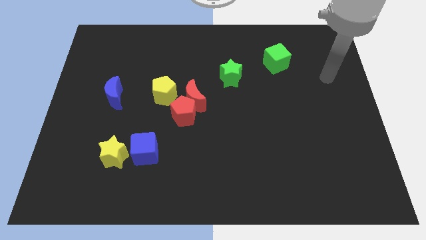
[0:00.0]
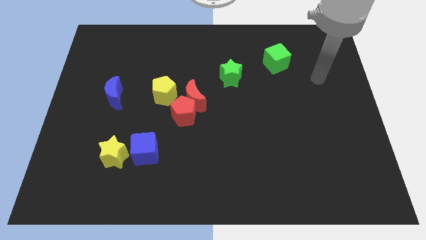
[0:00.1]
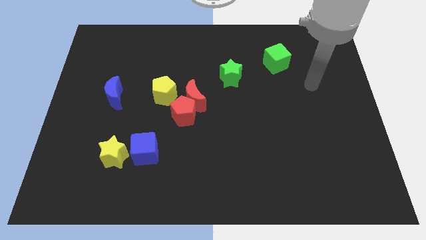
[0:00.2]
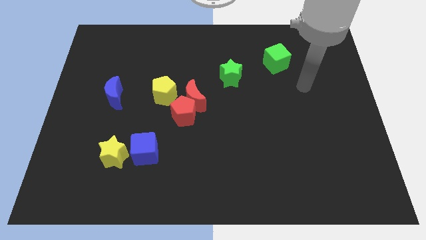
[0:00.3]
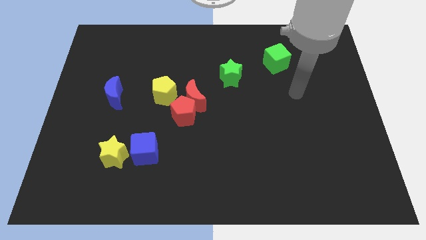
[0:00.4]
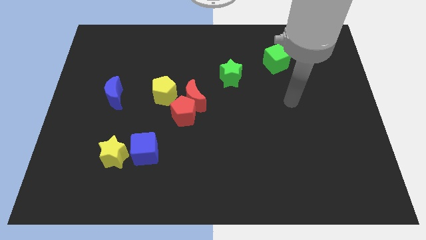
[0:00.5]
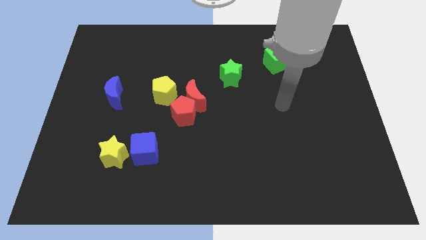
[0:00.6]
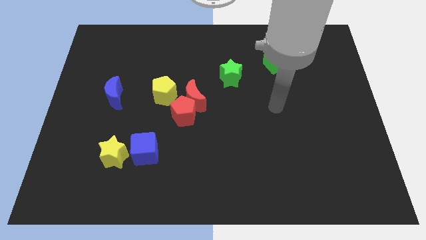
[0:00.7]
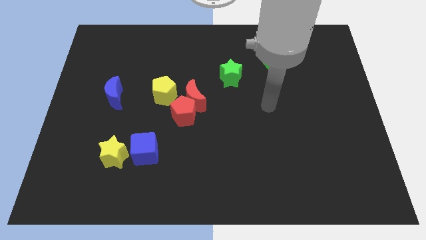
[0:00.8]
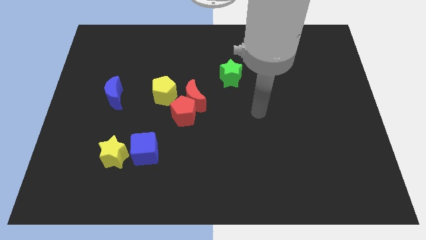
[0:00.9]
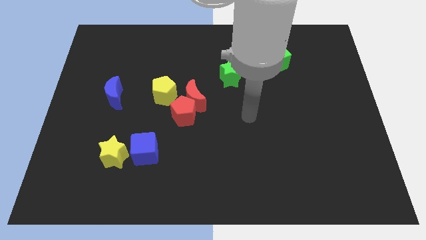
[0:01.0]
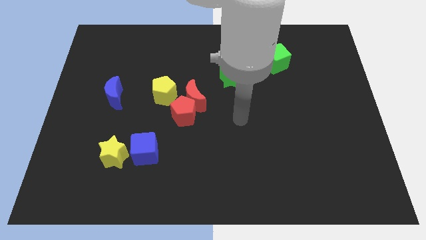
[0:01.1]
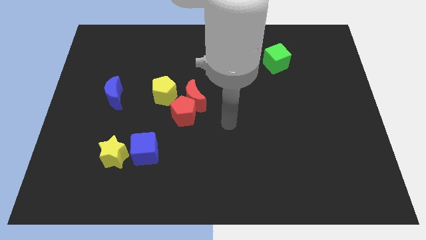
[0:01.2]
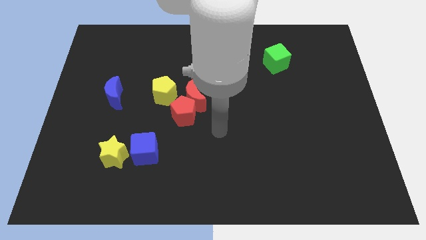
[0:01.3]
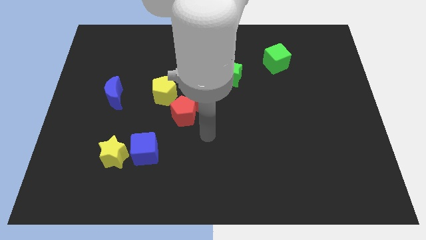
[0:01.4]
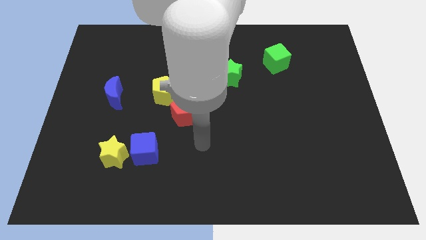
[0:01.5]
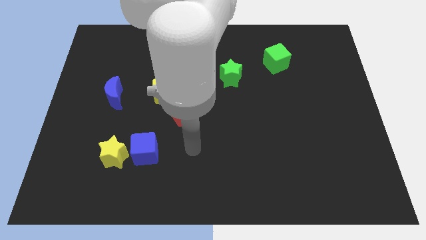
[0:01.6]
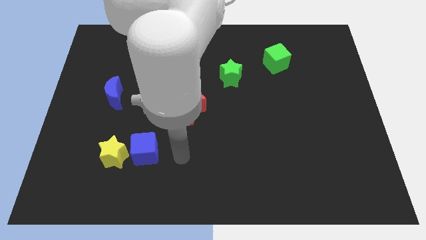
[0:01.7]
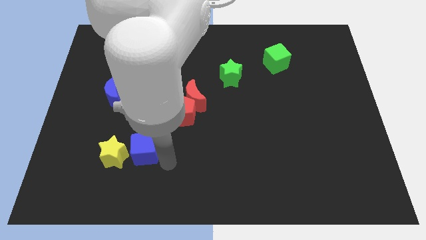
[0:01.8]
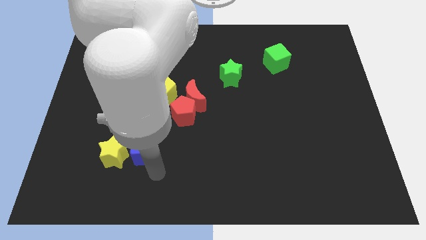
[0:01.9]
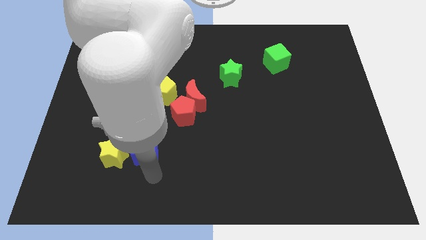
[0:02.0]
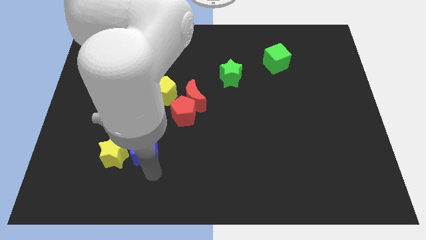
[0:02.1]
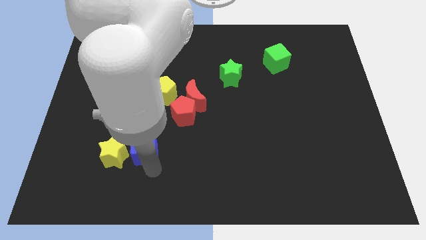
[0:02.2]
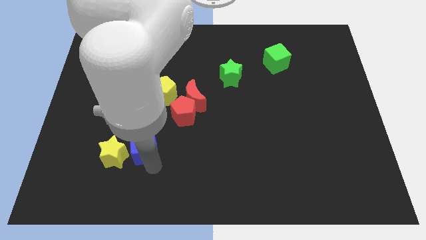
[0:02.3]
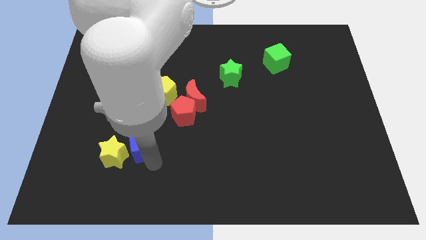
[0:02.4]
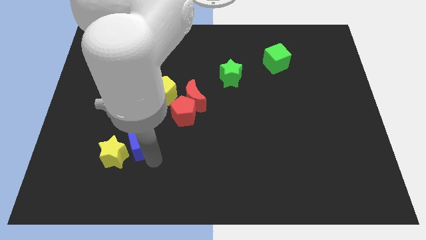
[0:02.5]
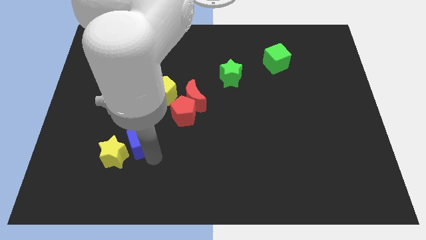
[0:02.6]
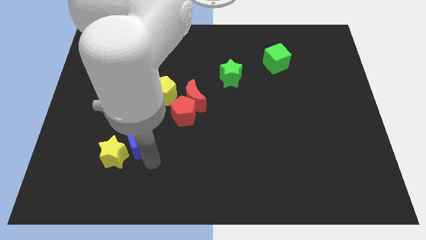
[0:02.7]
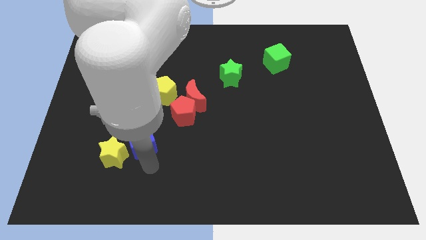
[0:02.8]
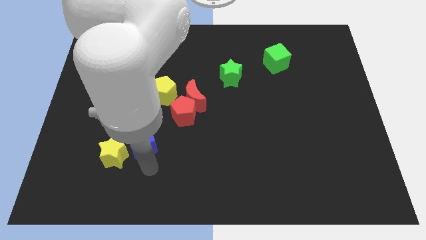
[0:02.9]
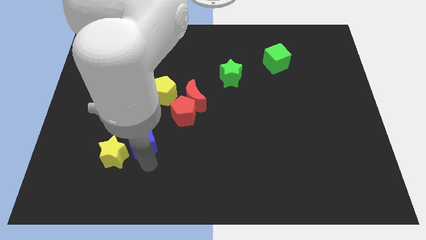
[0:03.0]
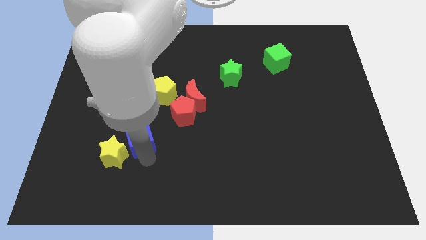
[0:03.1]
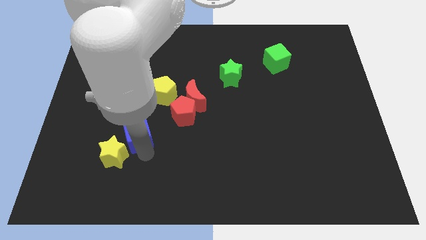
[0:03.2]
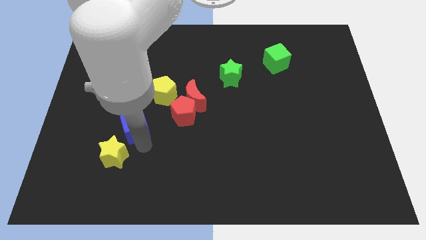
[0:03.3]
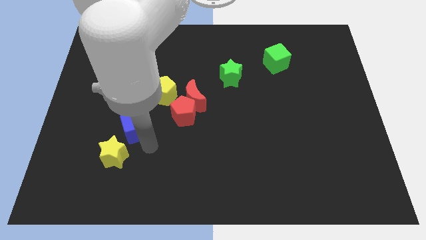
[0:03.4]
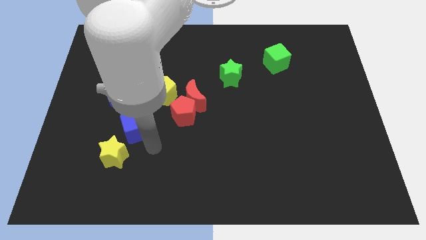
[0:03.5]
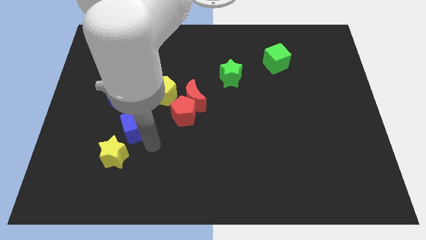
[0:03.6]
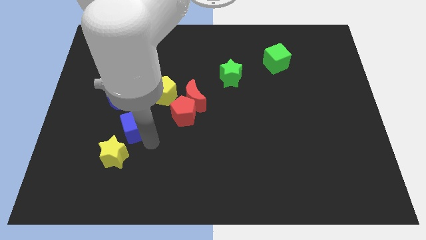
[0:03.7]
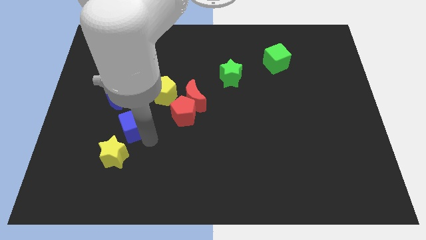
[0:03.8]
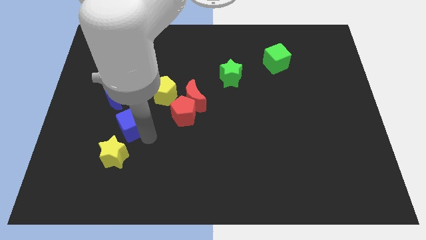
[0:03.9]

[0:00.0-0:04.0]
slide the blue cube up and to the left a little bit

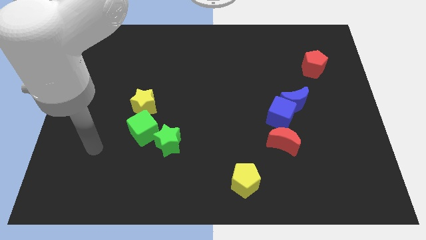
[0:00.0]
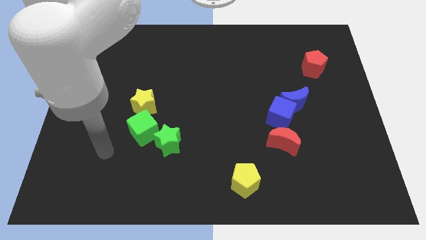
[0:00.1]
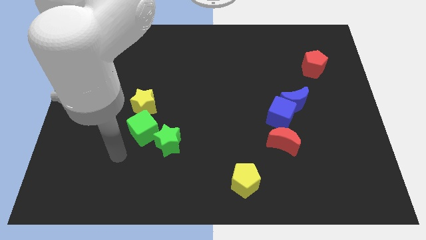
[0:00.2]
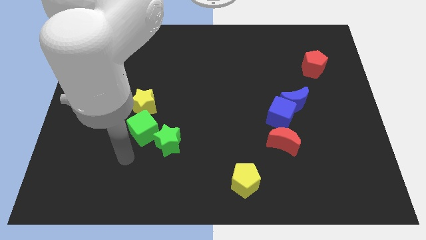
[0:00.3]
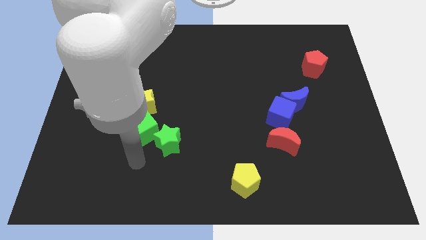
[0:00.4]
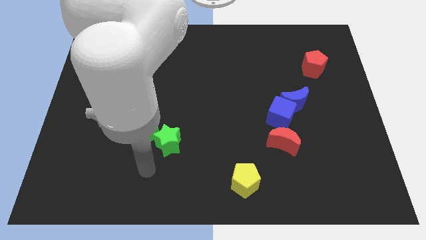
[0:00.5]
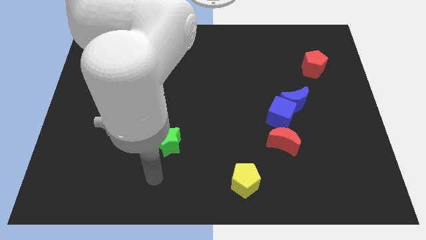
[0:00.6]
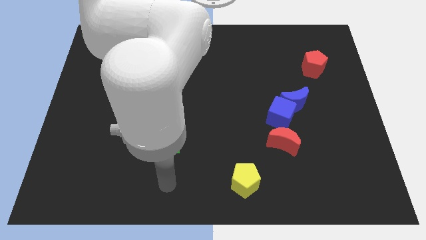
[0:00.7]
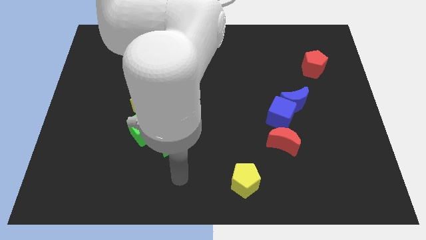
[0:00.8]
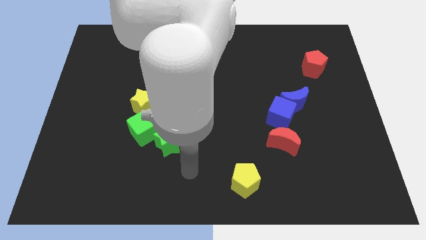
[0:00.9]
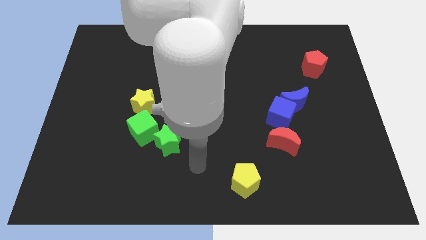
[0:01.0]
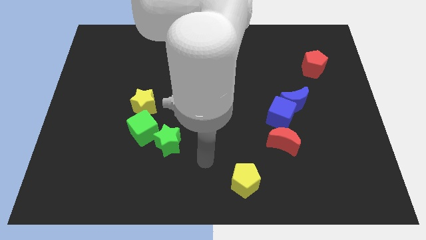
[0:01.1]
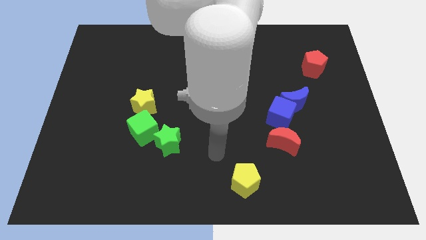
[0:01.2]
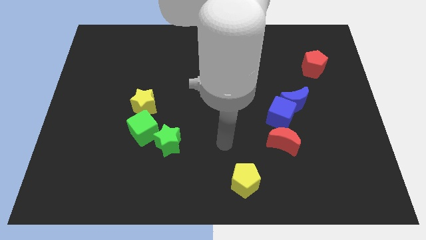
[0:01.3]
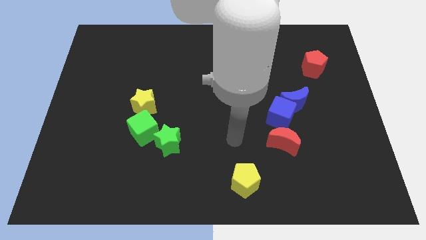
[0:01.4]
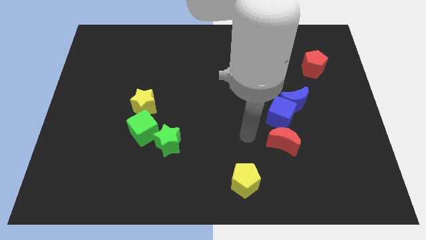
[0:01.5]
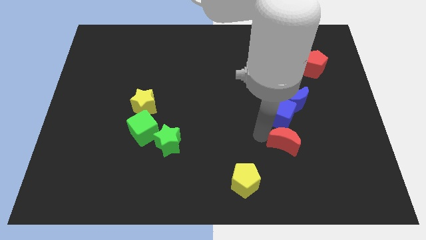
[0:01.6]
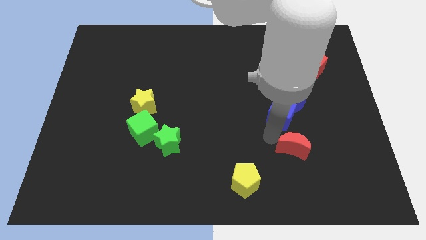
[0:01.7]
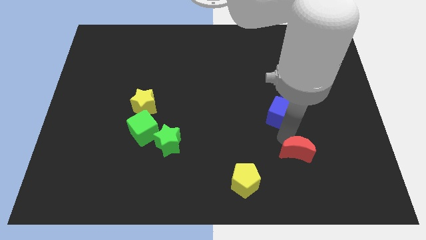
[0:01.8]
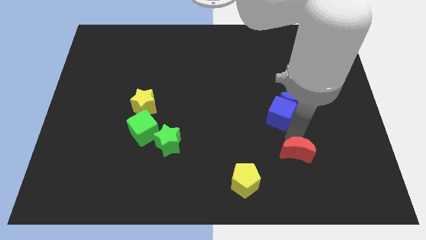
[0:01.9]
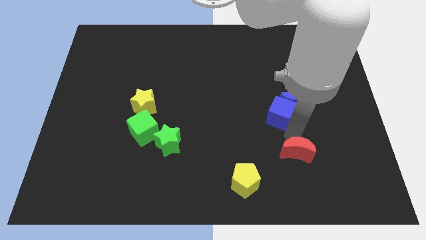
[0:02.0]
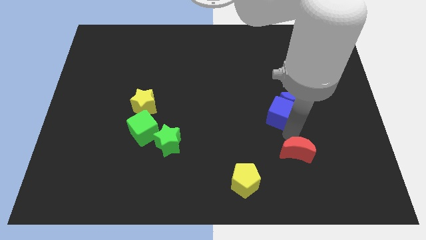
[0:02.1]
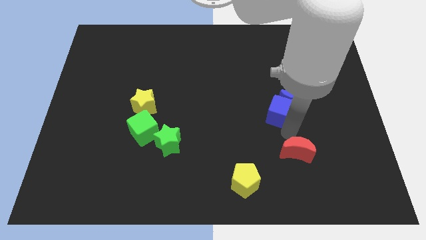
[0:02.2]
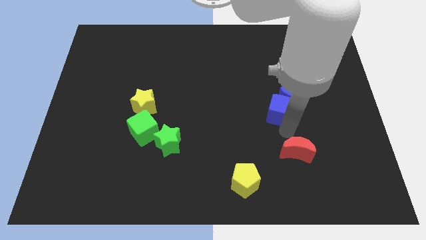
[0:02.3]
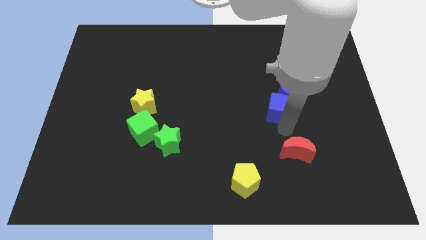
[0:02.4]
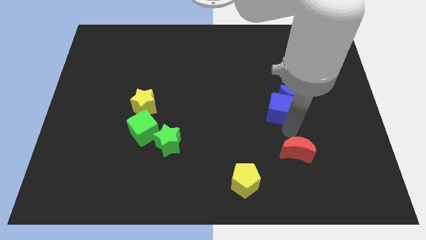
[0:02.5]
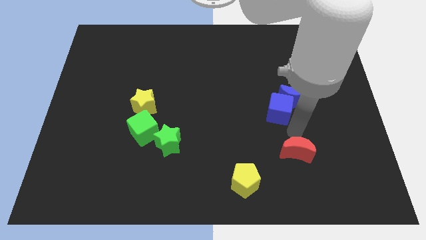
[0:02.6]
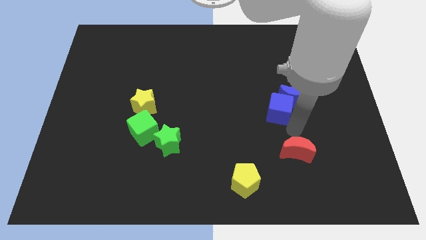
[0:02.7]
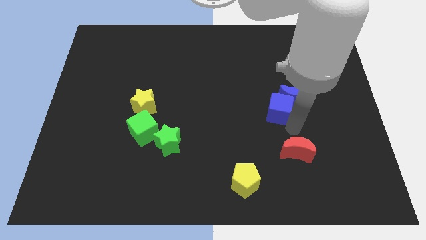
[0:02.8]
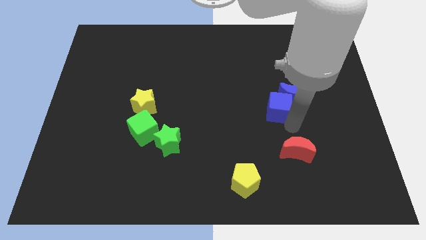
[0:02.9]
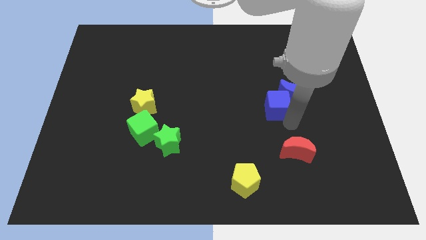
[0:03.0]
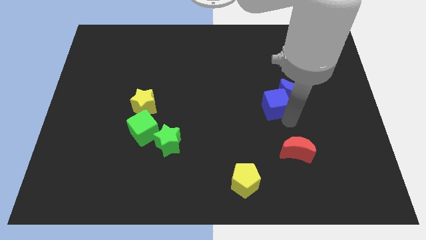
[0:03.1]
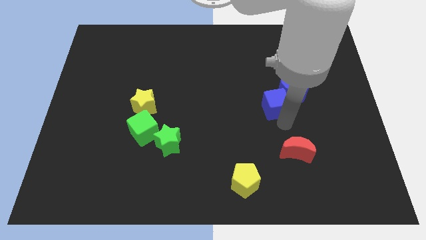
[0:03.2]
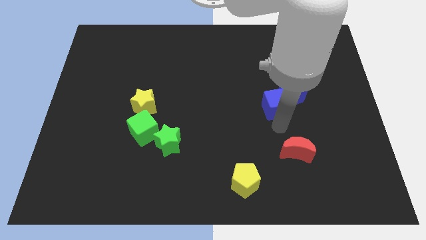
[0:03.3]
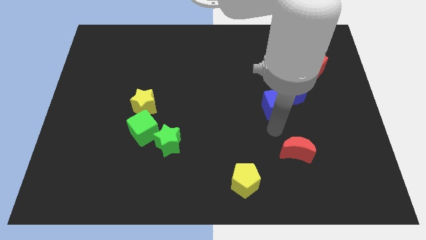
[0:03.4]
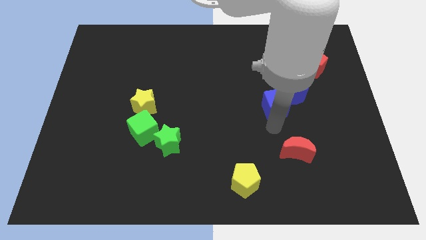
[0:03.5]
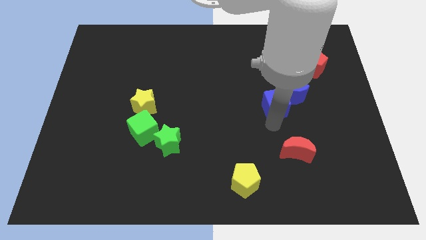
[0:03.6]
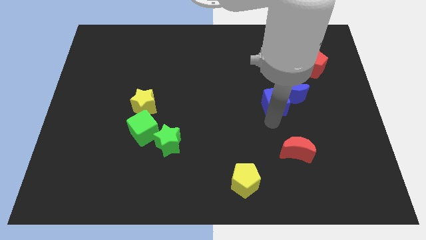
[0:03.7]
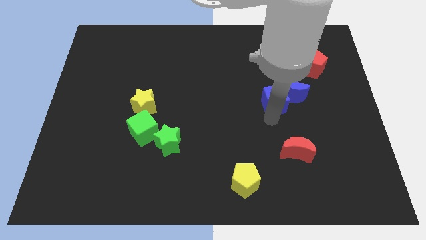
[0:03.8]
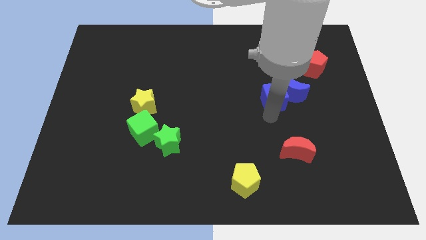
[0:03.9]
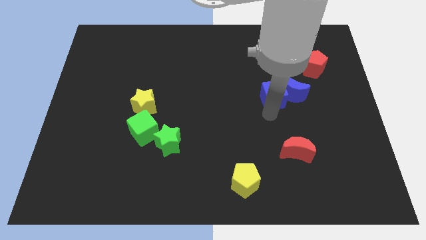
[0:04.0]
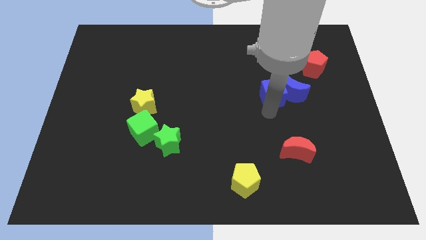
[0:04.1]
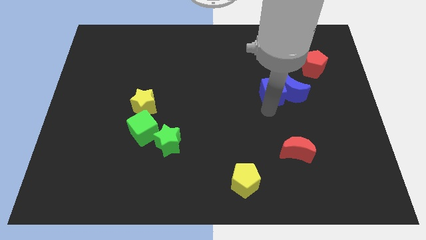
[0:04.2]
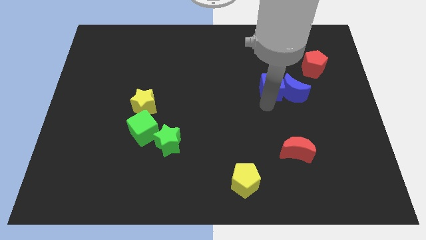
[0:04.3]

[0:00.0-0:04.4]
push the blue cube upwards a little bit
